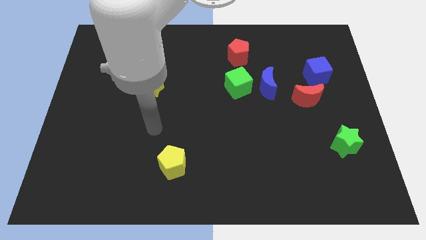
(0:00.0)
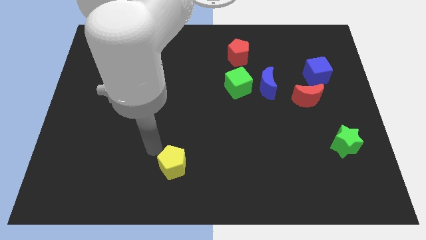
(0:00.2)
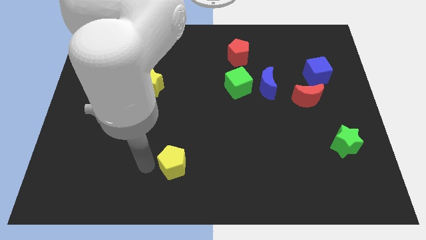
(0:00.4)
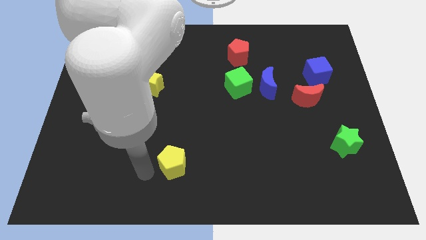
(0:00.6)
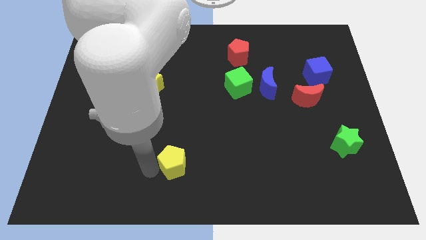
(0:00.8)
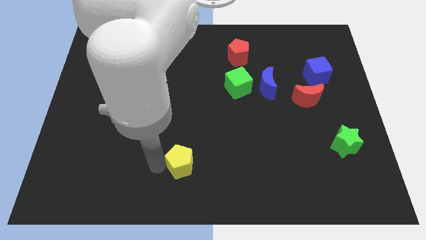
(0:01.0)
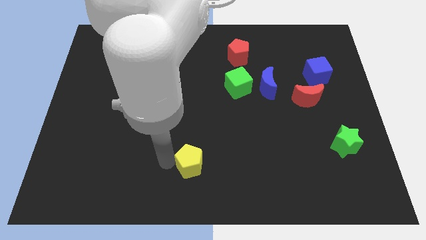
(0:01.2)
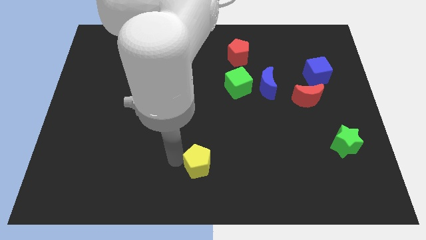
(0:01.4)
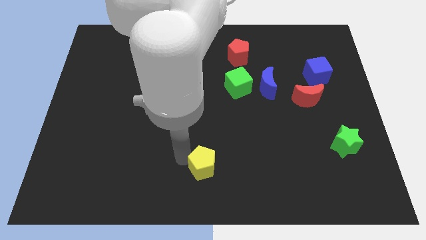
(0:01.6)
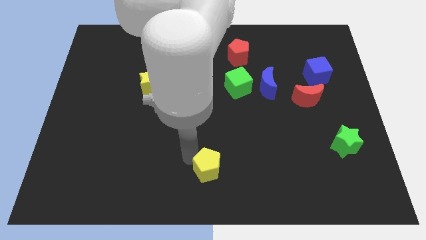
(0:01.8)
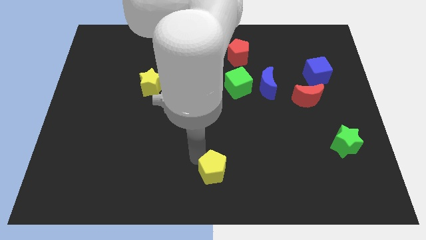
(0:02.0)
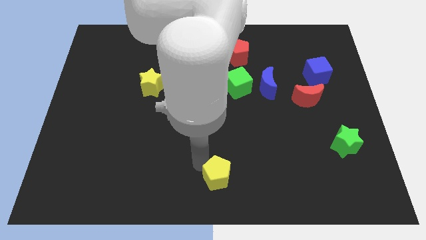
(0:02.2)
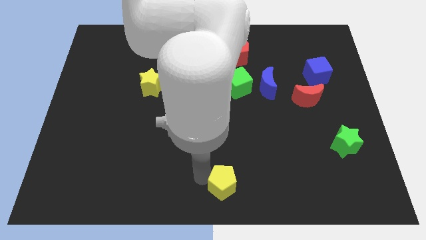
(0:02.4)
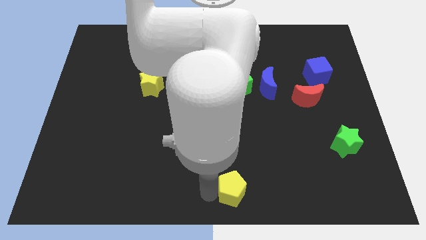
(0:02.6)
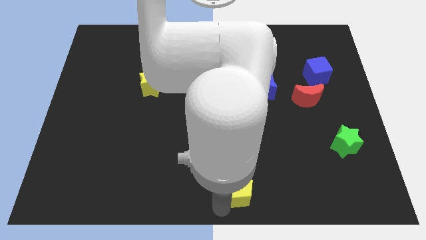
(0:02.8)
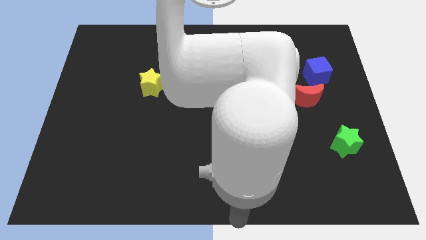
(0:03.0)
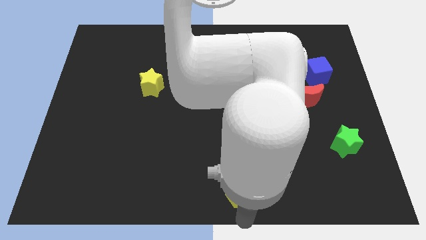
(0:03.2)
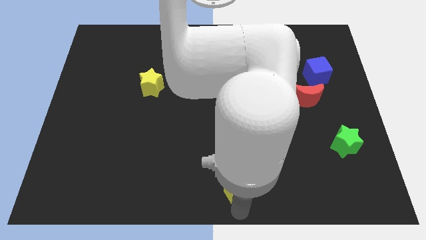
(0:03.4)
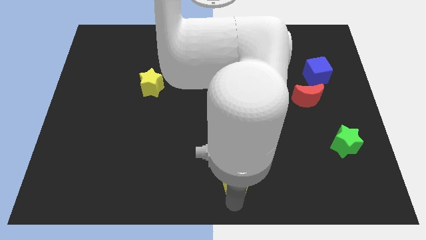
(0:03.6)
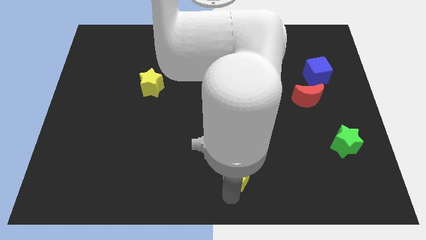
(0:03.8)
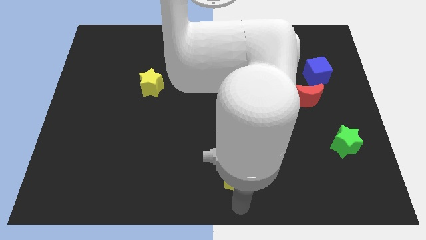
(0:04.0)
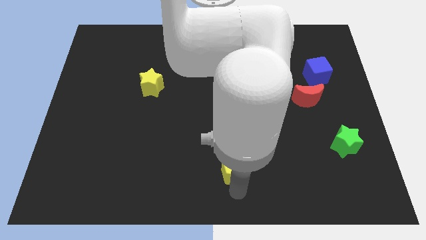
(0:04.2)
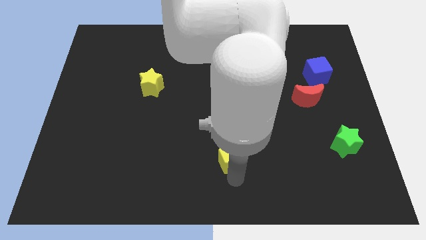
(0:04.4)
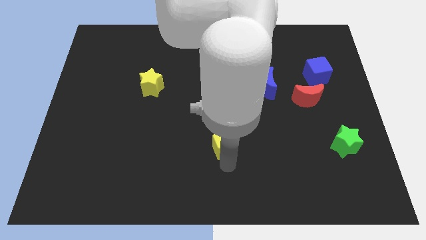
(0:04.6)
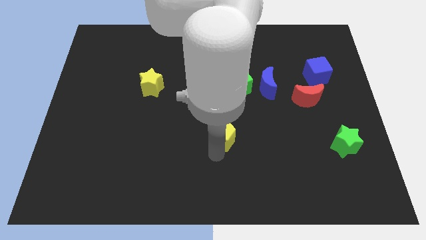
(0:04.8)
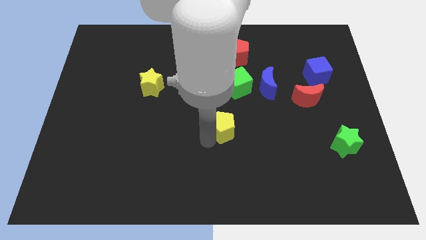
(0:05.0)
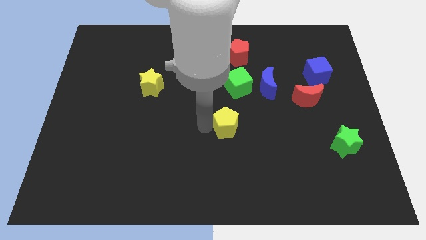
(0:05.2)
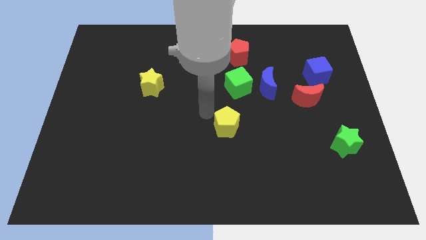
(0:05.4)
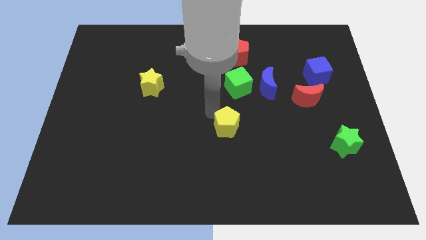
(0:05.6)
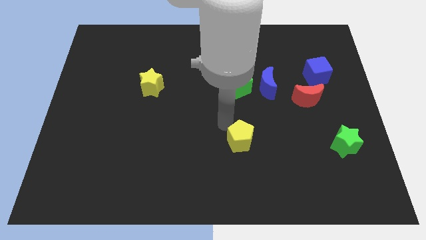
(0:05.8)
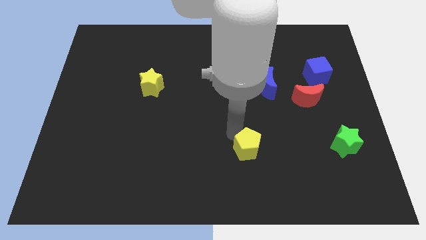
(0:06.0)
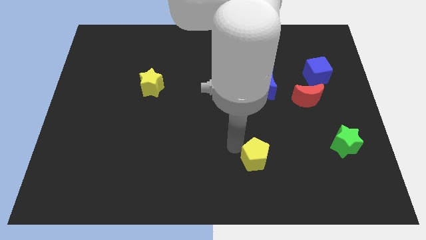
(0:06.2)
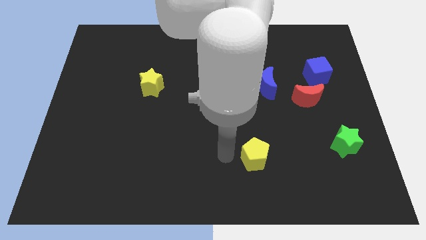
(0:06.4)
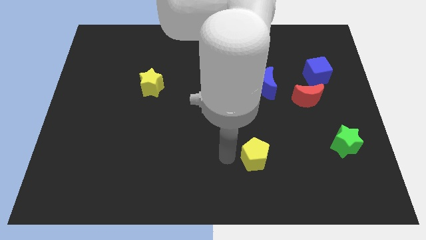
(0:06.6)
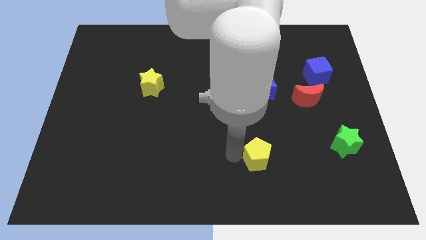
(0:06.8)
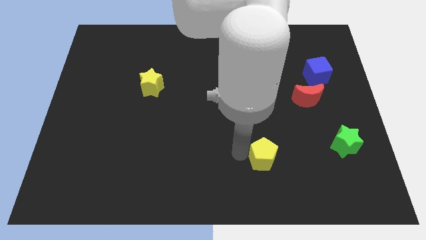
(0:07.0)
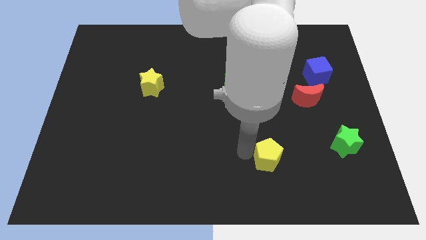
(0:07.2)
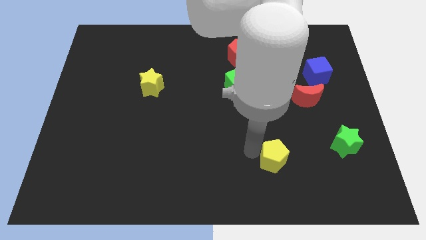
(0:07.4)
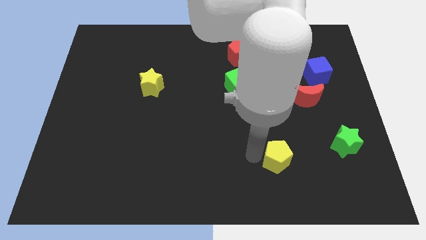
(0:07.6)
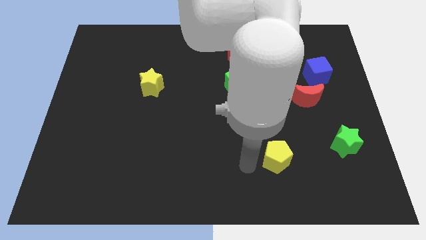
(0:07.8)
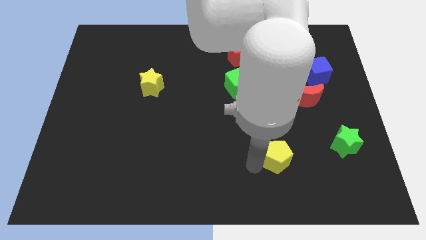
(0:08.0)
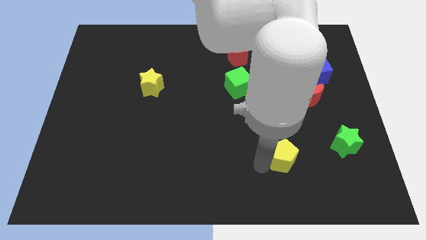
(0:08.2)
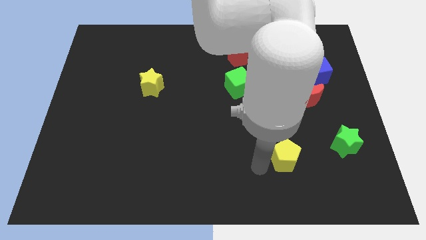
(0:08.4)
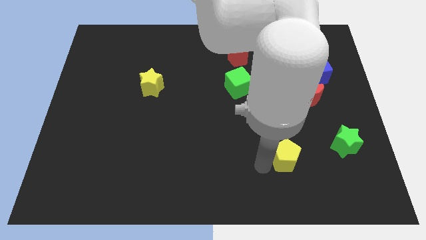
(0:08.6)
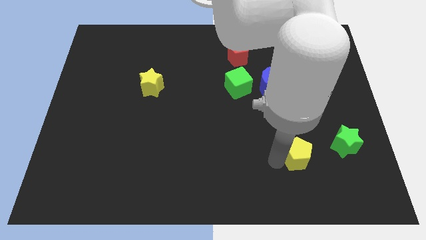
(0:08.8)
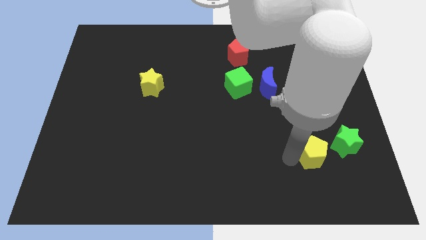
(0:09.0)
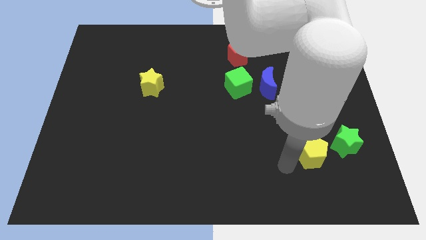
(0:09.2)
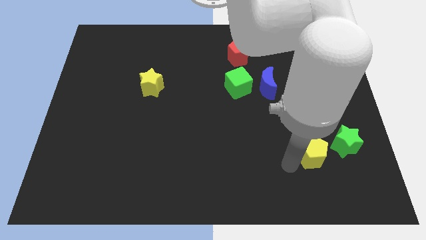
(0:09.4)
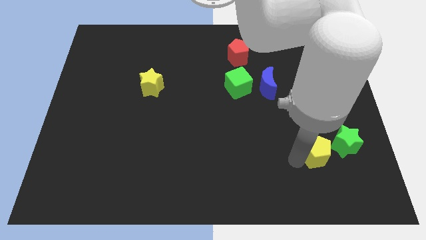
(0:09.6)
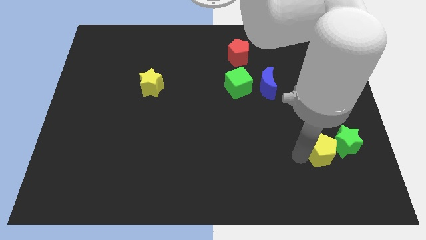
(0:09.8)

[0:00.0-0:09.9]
move the yellow pentagon close to the green star

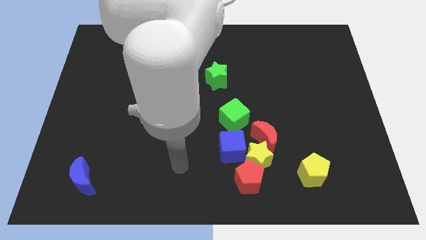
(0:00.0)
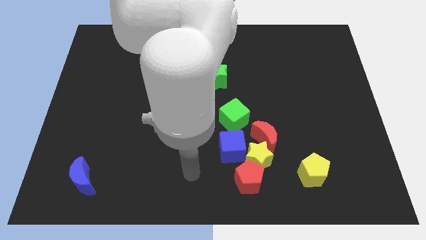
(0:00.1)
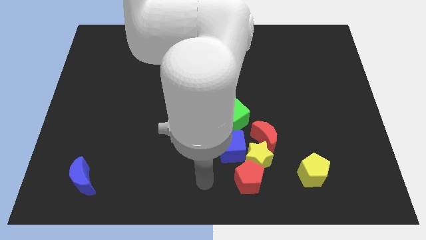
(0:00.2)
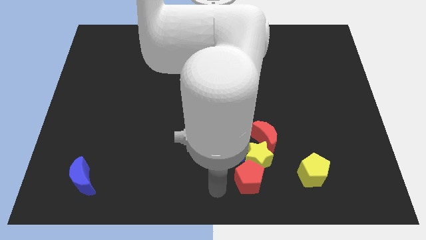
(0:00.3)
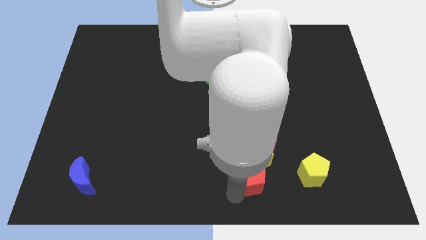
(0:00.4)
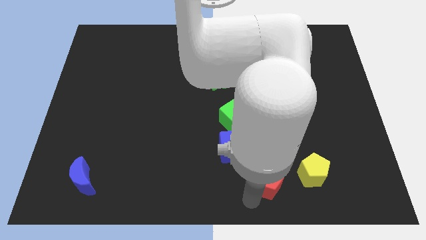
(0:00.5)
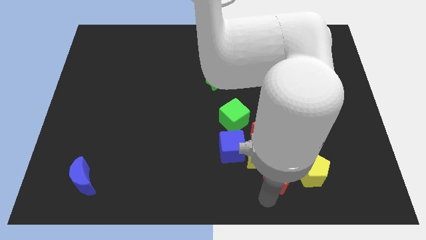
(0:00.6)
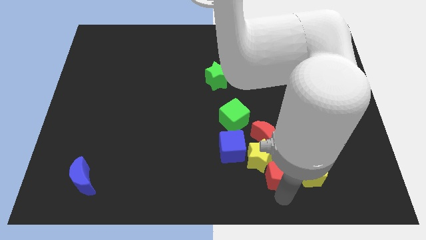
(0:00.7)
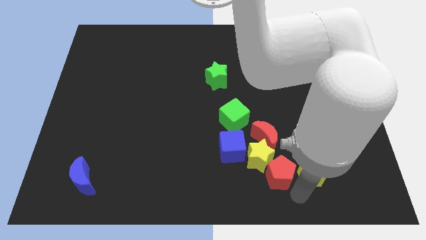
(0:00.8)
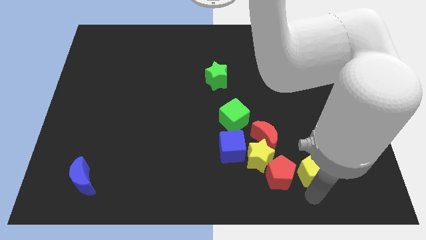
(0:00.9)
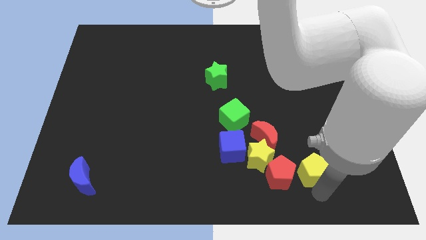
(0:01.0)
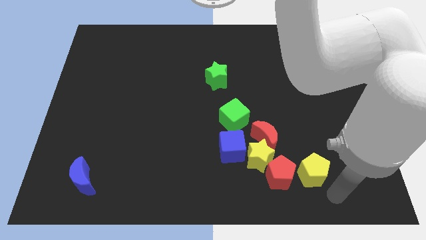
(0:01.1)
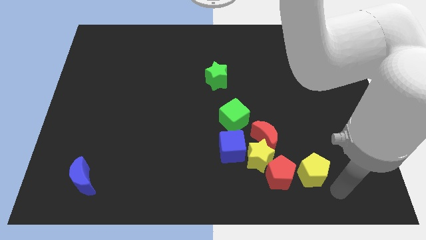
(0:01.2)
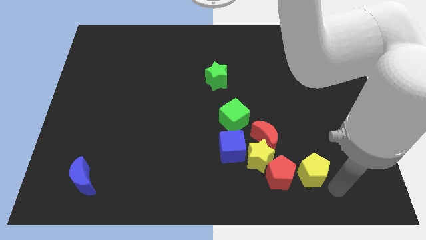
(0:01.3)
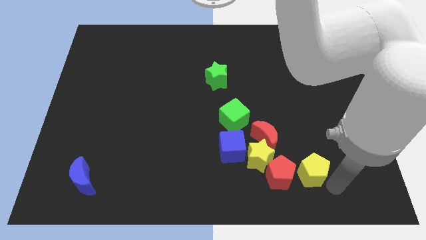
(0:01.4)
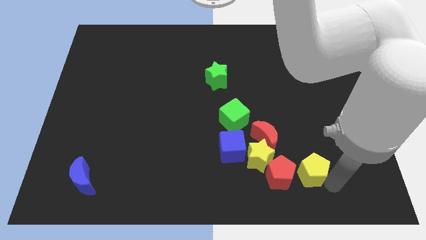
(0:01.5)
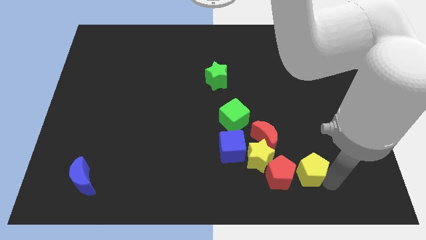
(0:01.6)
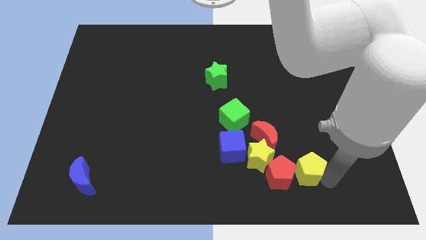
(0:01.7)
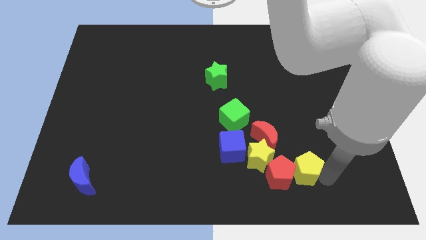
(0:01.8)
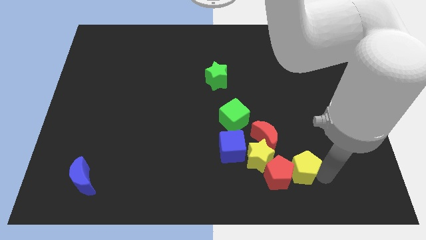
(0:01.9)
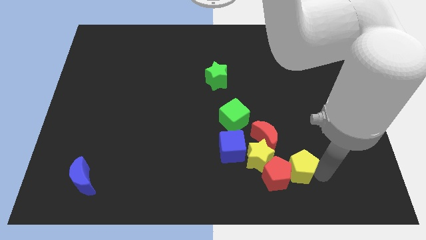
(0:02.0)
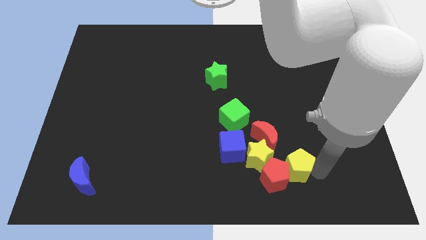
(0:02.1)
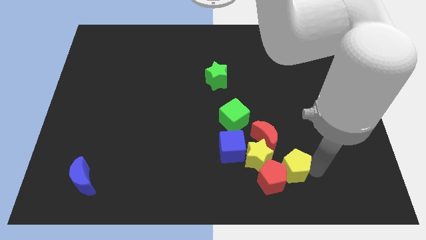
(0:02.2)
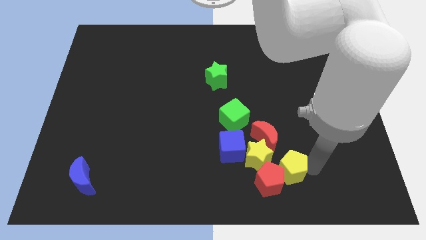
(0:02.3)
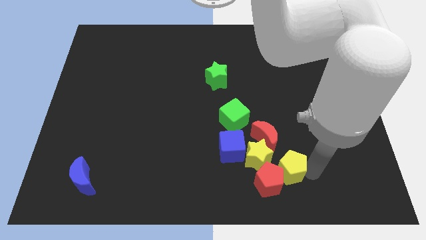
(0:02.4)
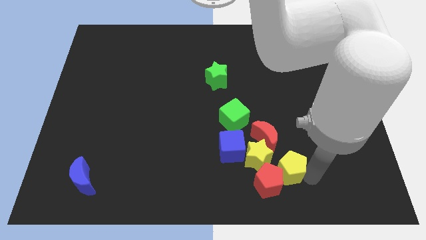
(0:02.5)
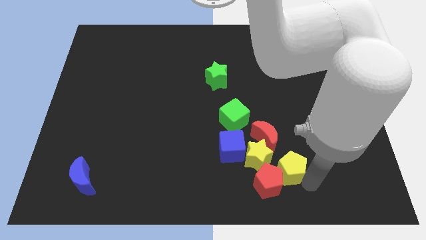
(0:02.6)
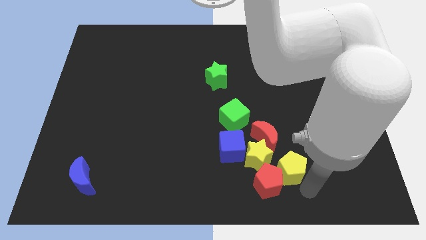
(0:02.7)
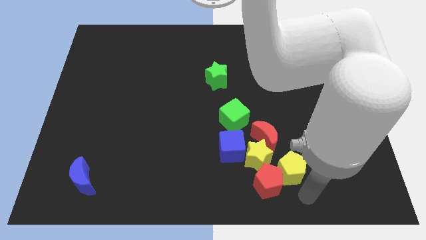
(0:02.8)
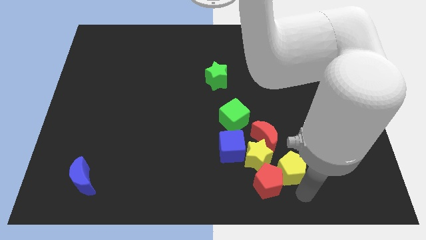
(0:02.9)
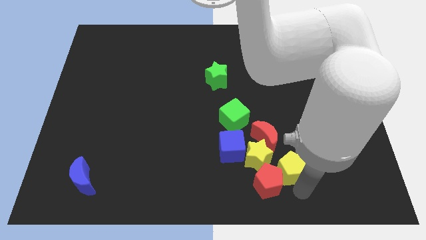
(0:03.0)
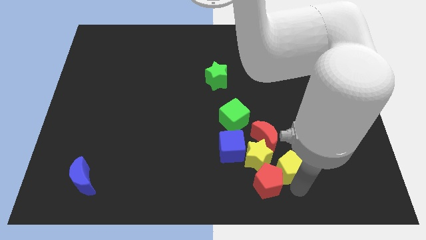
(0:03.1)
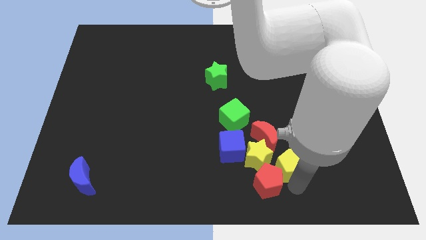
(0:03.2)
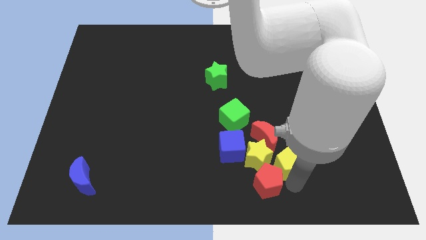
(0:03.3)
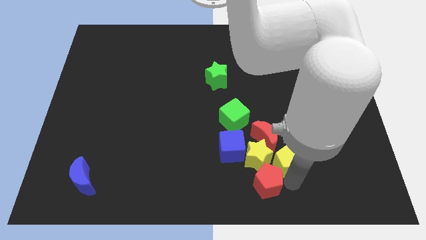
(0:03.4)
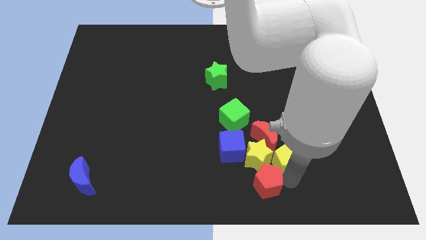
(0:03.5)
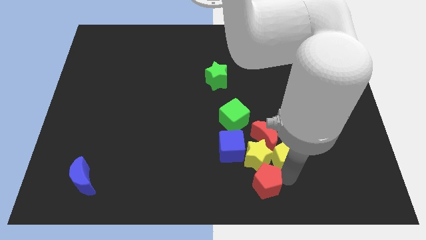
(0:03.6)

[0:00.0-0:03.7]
move the yellow pentagon close to the red moon
